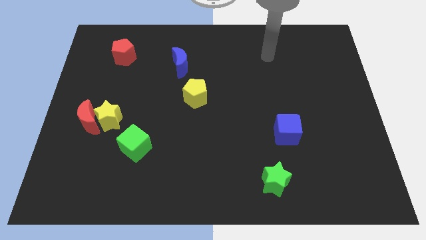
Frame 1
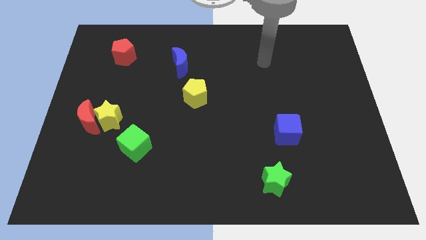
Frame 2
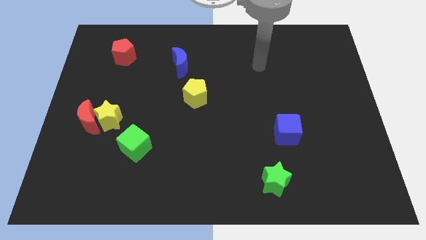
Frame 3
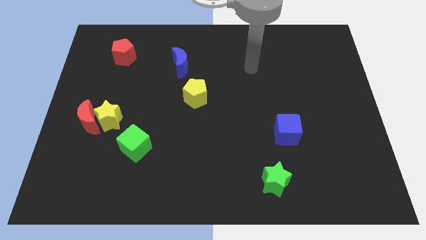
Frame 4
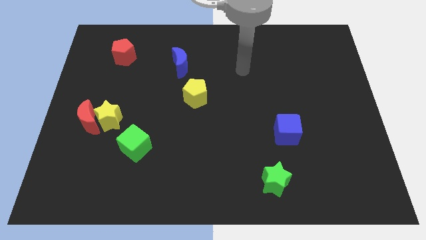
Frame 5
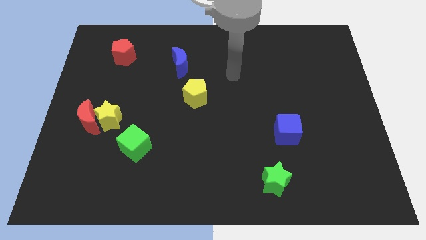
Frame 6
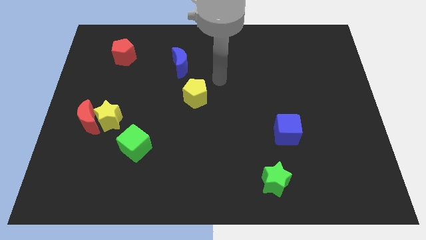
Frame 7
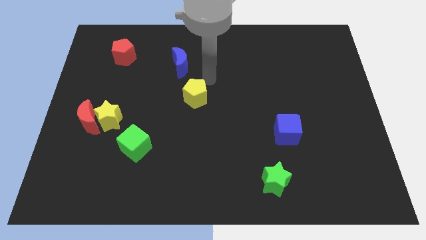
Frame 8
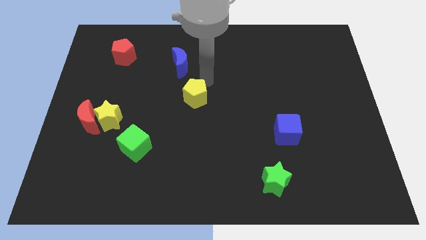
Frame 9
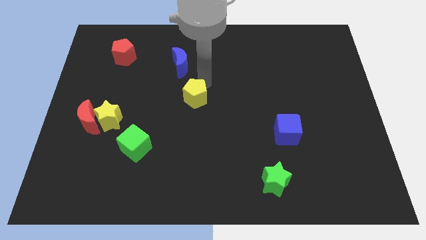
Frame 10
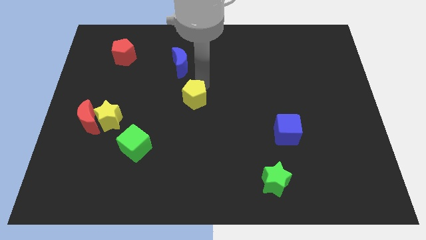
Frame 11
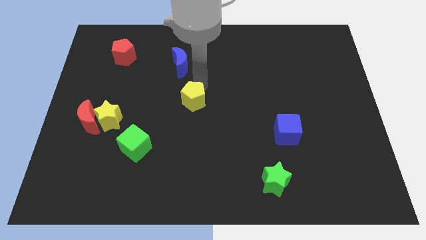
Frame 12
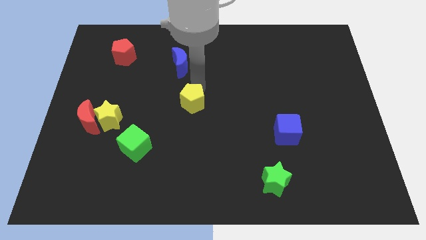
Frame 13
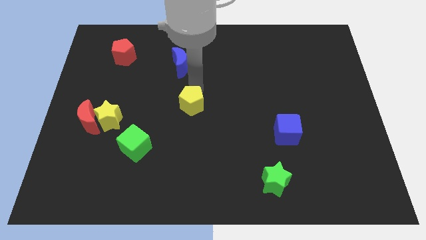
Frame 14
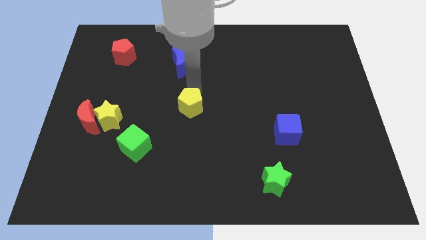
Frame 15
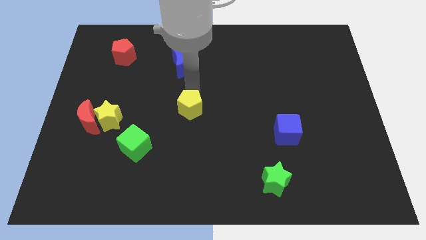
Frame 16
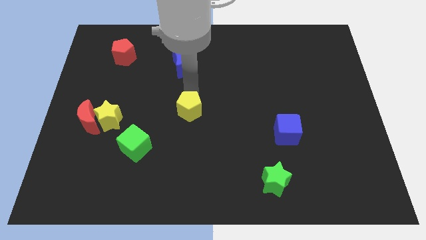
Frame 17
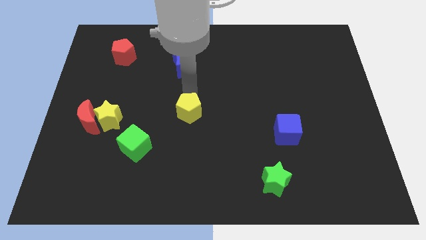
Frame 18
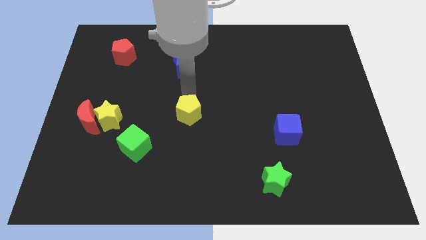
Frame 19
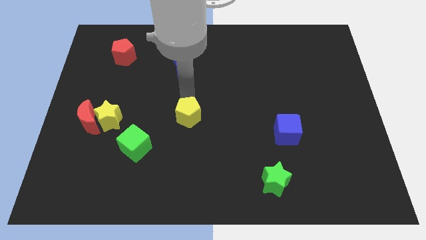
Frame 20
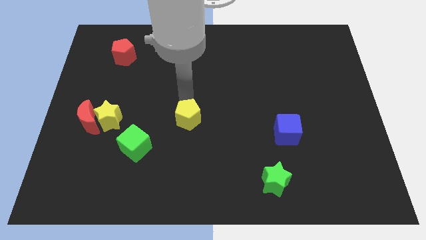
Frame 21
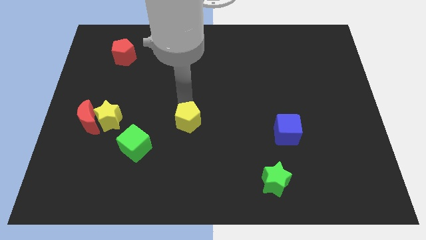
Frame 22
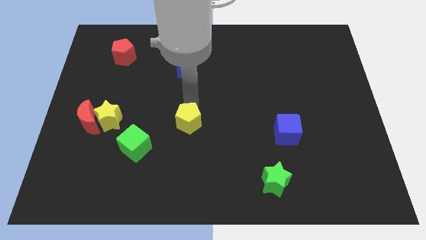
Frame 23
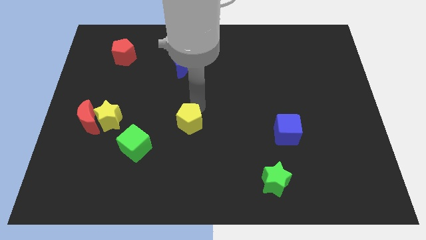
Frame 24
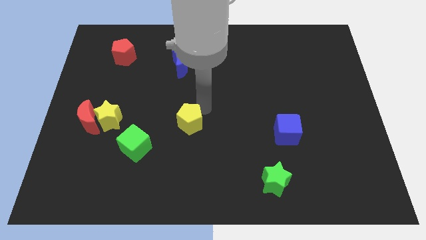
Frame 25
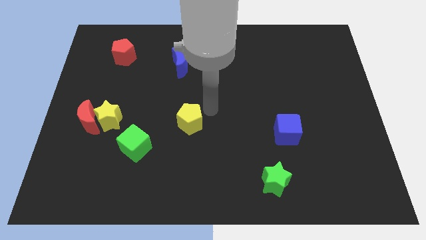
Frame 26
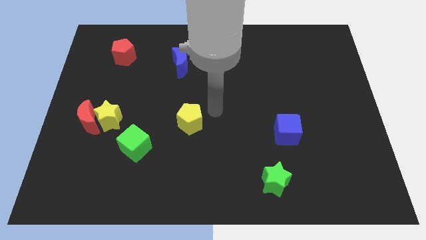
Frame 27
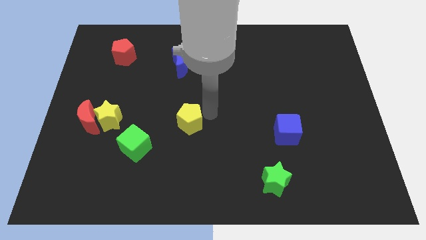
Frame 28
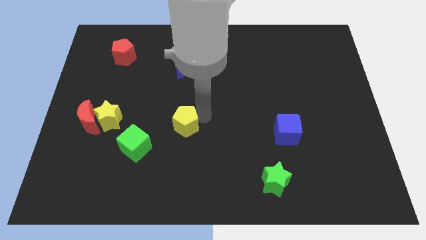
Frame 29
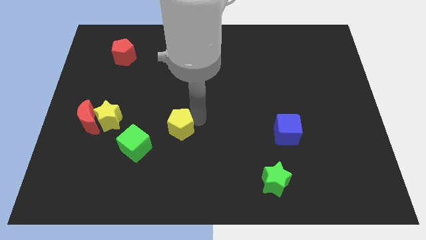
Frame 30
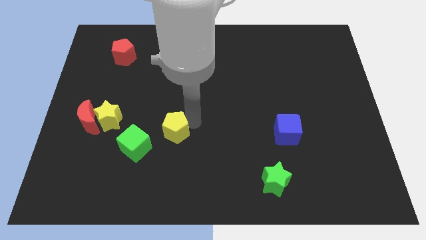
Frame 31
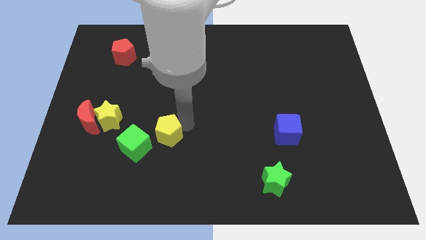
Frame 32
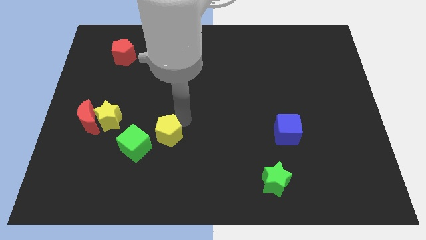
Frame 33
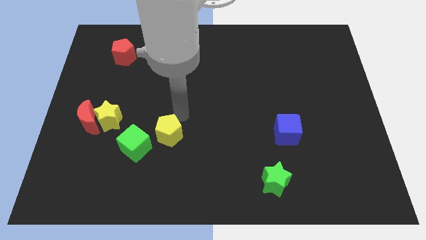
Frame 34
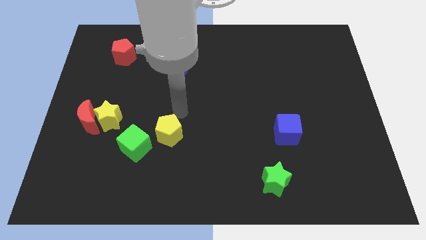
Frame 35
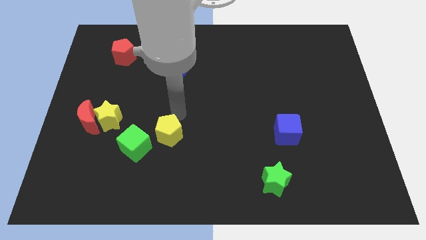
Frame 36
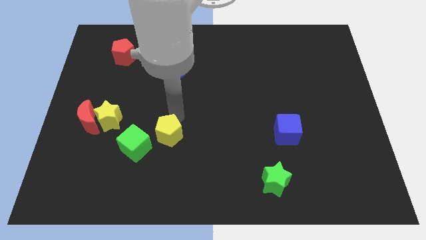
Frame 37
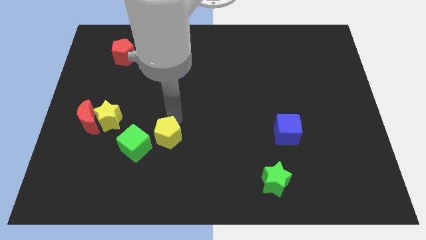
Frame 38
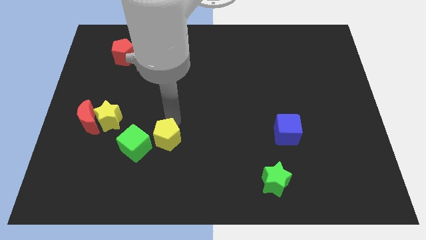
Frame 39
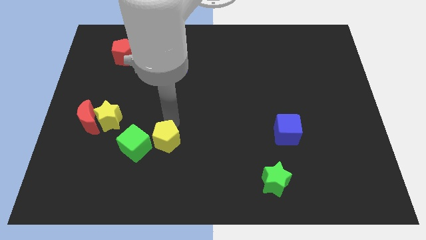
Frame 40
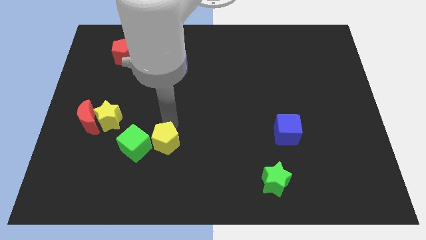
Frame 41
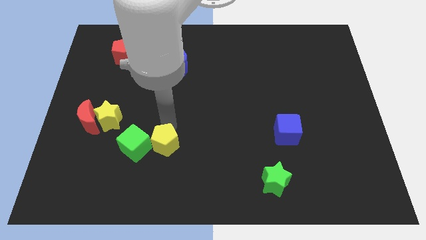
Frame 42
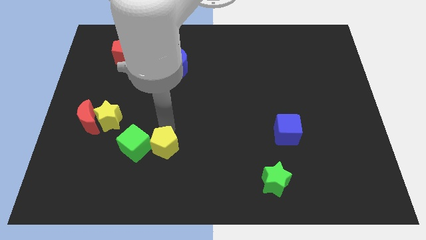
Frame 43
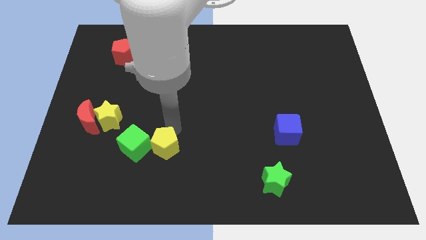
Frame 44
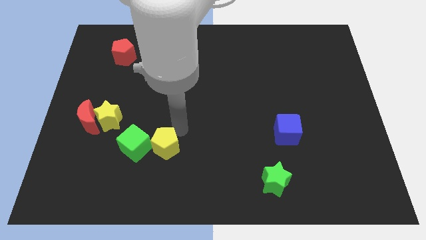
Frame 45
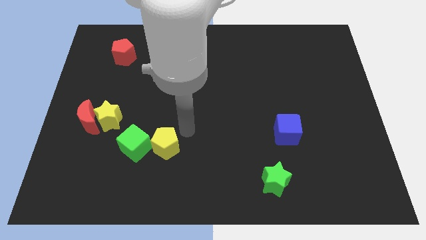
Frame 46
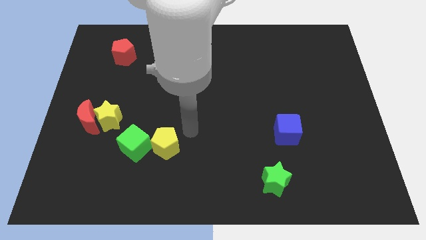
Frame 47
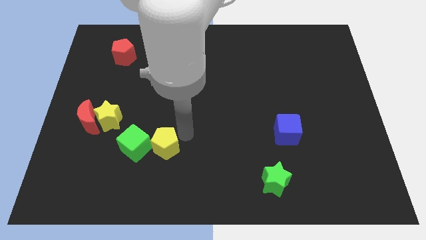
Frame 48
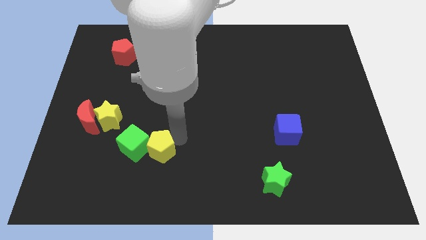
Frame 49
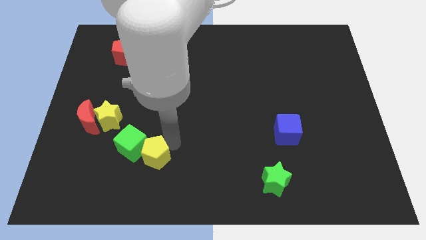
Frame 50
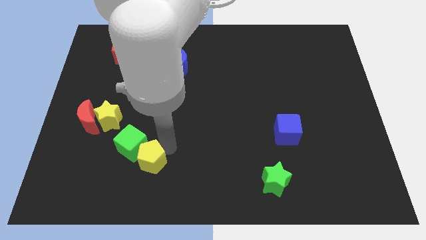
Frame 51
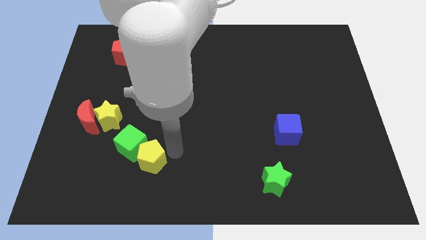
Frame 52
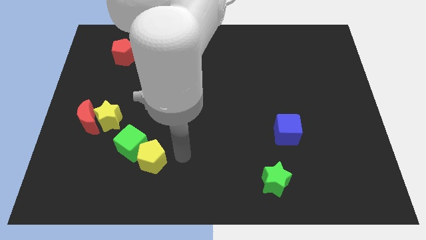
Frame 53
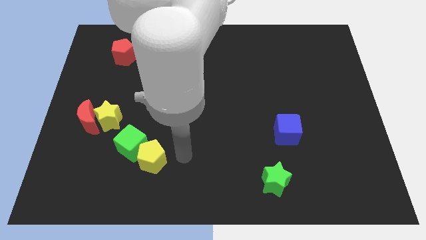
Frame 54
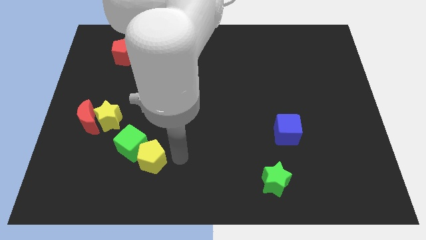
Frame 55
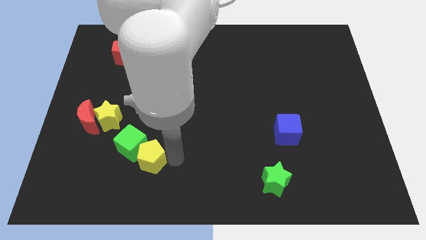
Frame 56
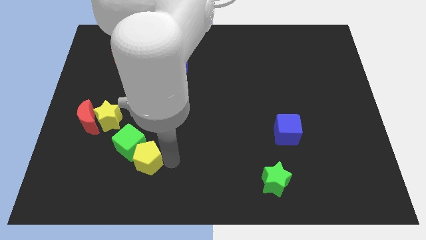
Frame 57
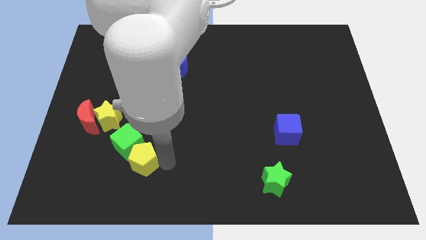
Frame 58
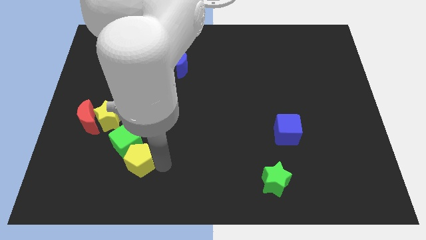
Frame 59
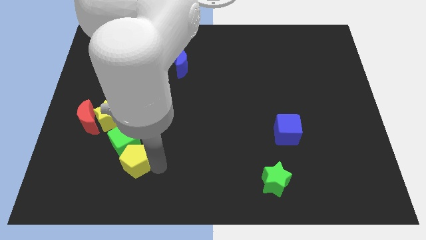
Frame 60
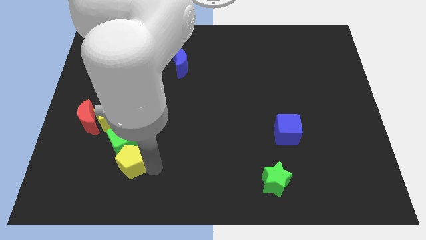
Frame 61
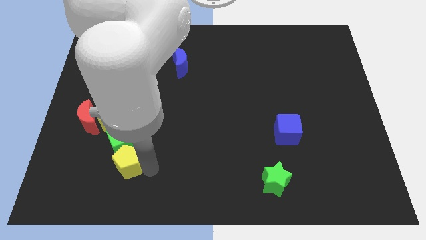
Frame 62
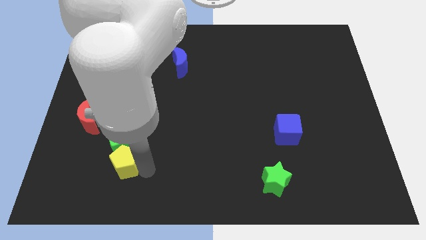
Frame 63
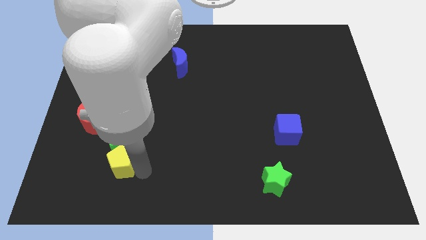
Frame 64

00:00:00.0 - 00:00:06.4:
slide the yellow pentagon diagonally down and to the left of the green cube
